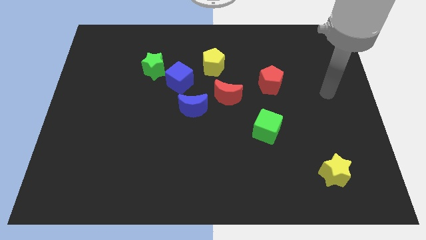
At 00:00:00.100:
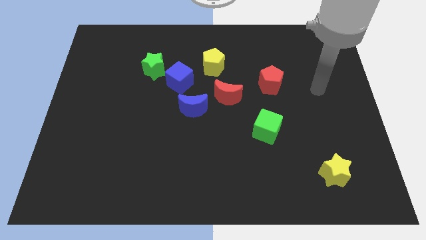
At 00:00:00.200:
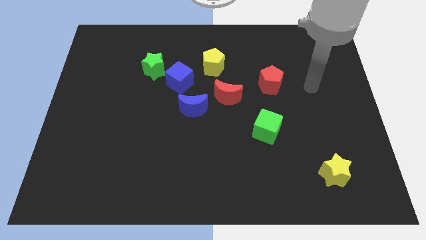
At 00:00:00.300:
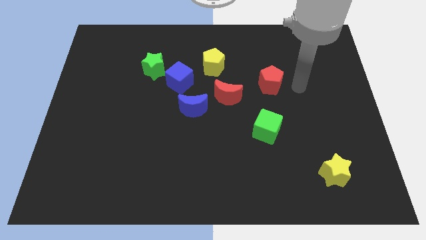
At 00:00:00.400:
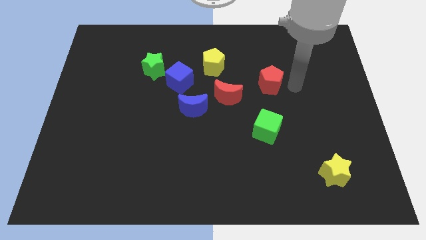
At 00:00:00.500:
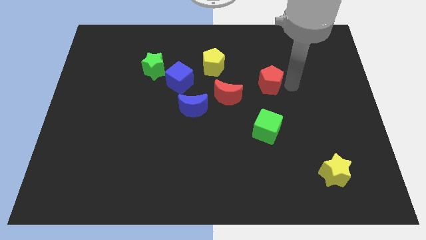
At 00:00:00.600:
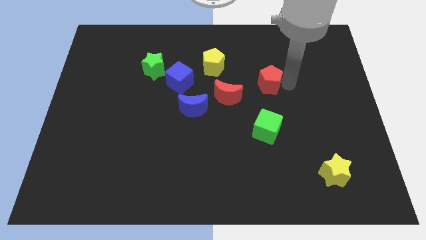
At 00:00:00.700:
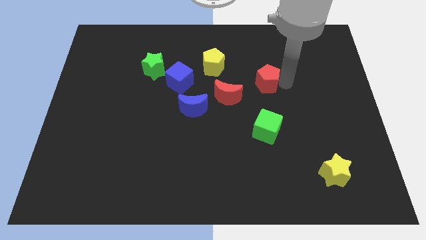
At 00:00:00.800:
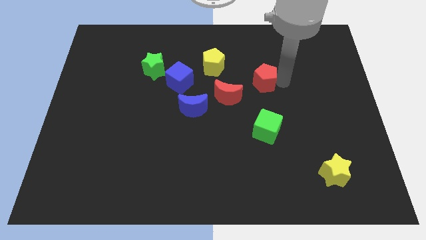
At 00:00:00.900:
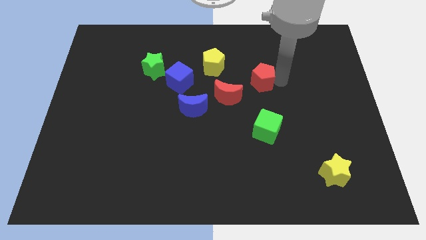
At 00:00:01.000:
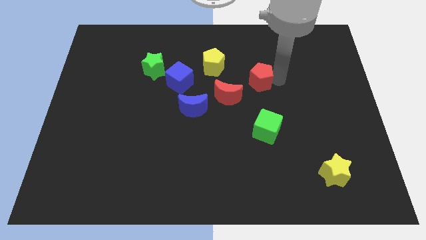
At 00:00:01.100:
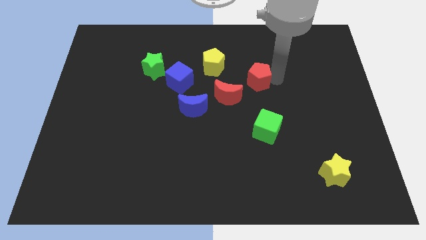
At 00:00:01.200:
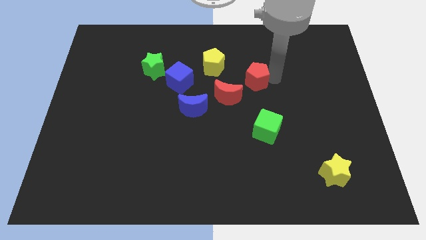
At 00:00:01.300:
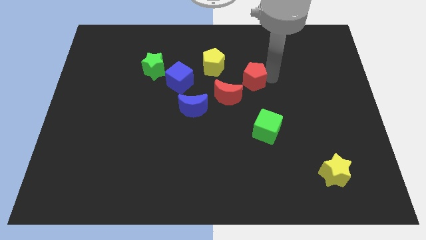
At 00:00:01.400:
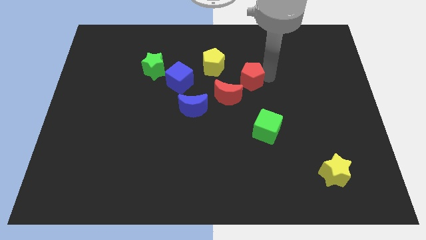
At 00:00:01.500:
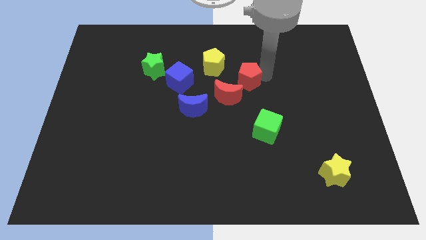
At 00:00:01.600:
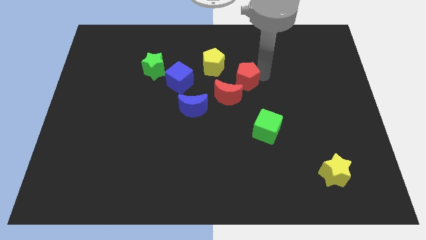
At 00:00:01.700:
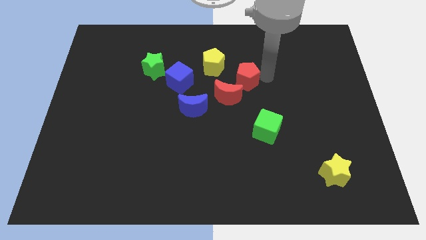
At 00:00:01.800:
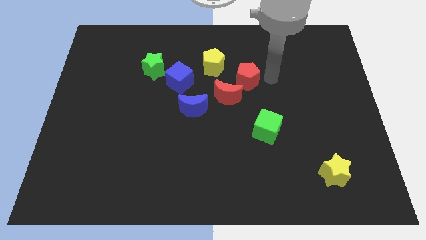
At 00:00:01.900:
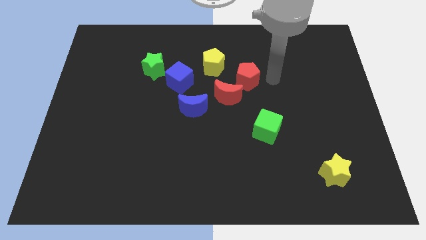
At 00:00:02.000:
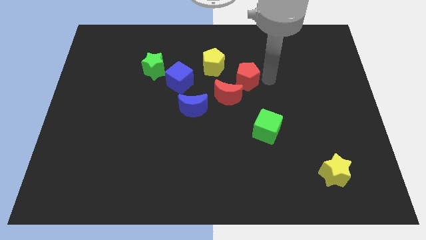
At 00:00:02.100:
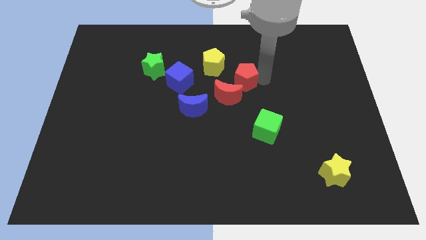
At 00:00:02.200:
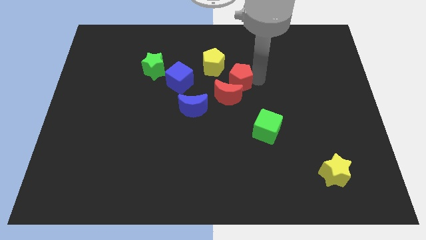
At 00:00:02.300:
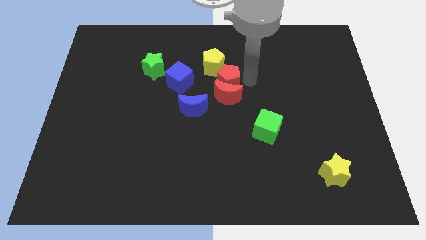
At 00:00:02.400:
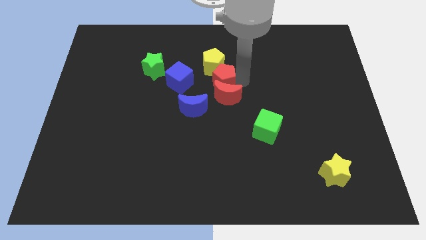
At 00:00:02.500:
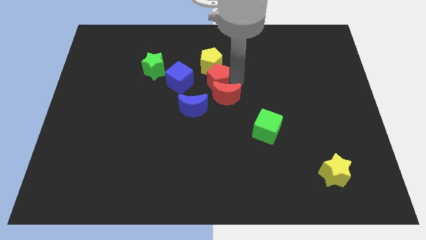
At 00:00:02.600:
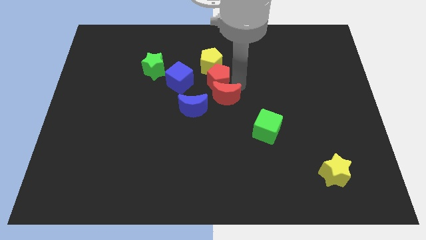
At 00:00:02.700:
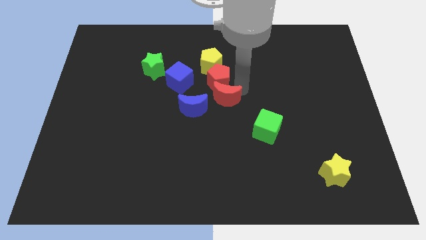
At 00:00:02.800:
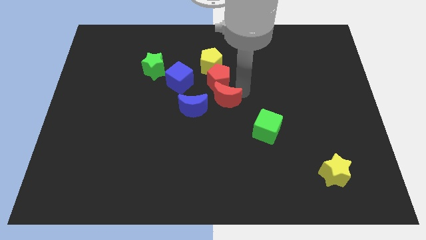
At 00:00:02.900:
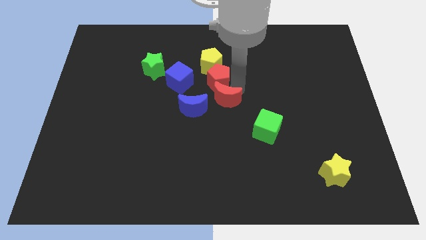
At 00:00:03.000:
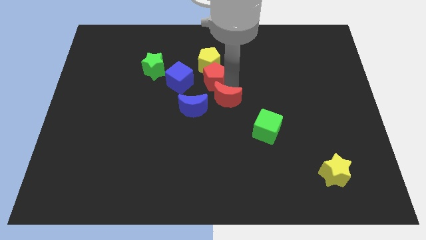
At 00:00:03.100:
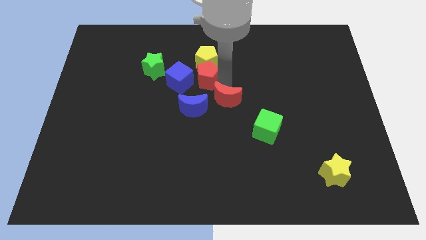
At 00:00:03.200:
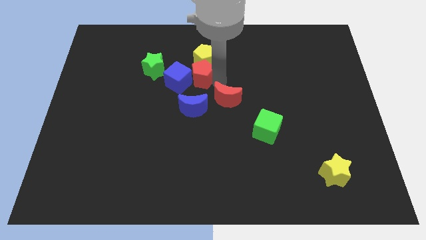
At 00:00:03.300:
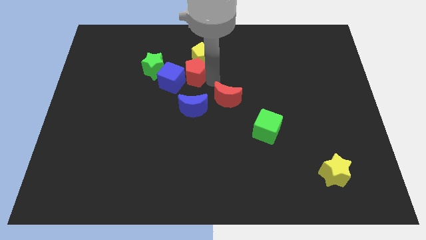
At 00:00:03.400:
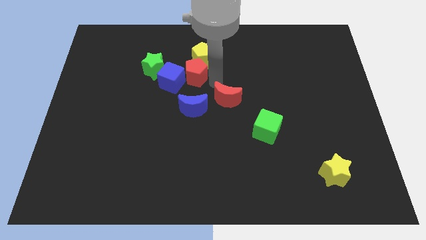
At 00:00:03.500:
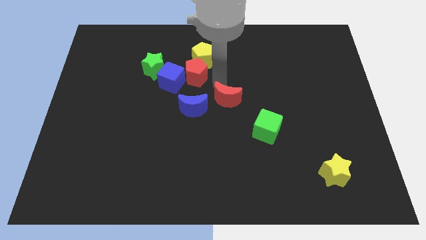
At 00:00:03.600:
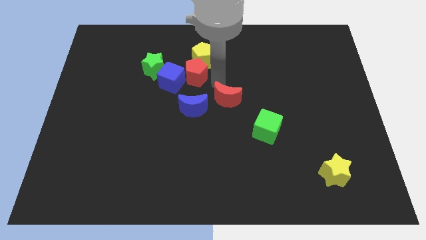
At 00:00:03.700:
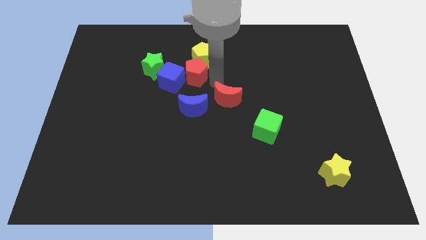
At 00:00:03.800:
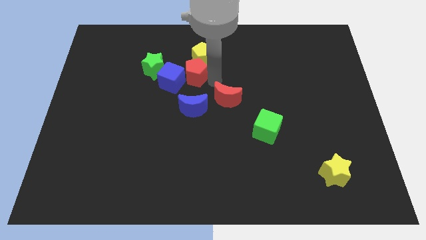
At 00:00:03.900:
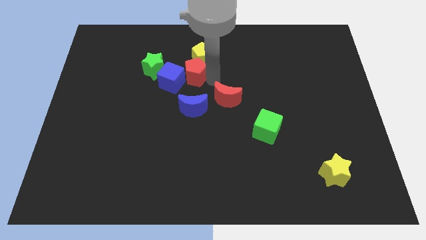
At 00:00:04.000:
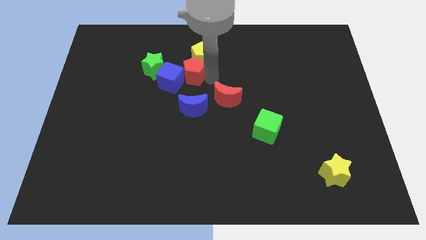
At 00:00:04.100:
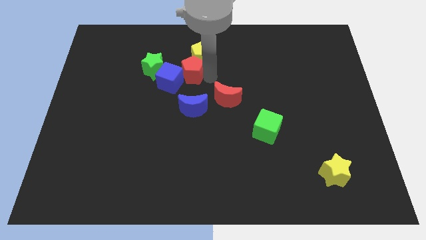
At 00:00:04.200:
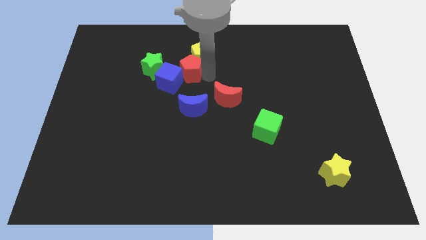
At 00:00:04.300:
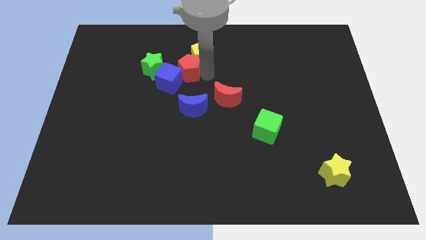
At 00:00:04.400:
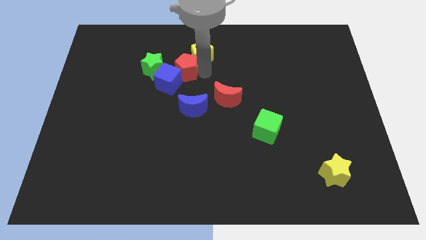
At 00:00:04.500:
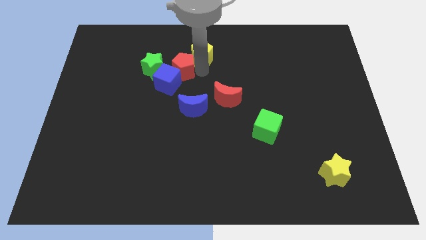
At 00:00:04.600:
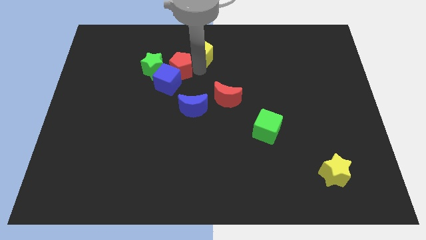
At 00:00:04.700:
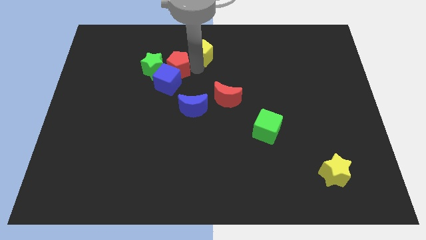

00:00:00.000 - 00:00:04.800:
slide the red pentagon to the green star

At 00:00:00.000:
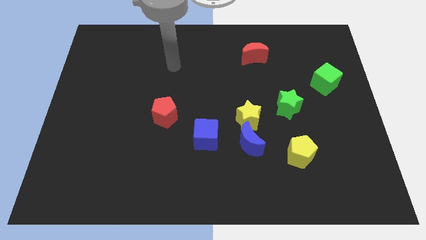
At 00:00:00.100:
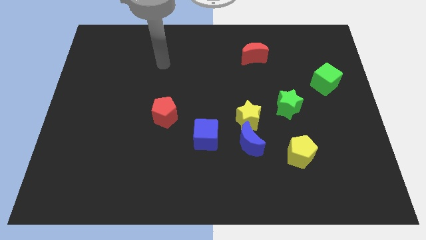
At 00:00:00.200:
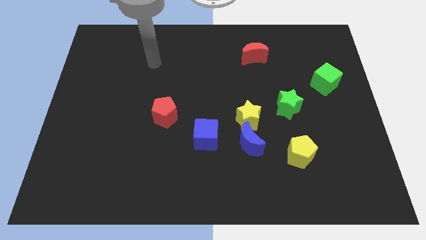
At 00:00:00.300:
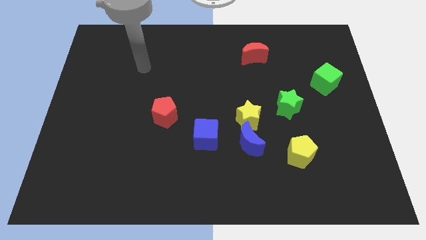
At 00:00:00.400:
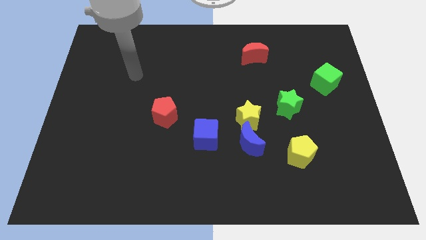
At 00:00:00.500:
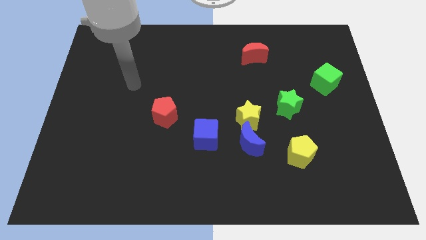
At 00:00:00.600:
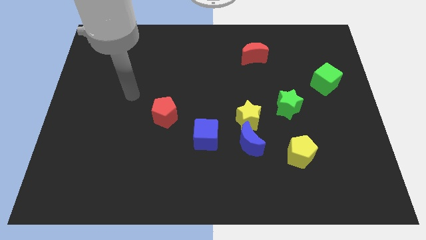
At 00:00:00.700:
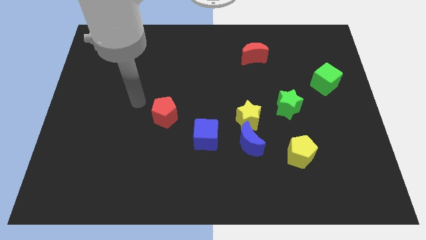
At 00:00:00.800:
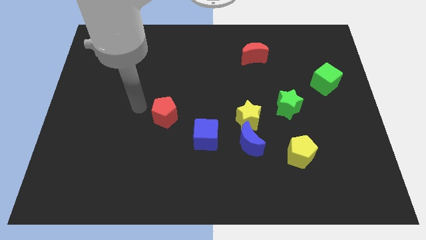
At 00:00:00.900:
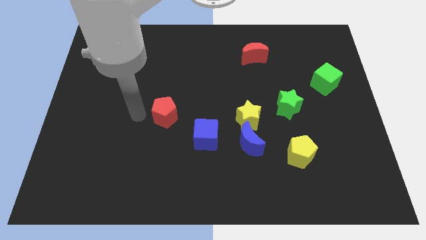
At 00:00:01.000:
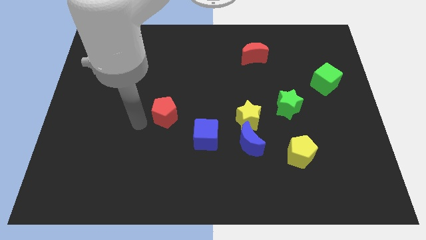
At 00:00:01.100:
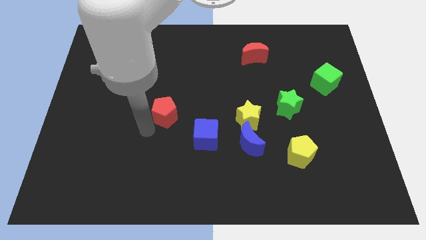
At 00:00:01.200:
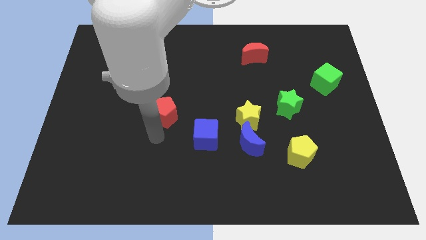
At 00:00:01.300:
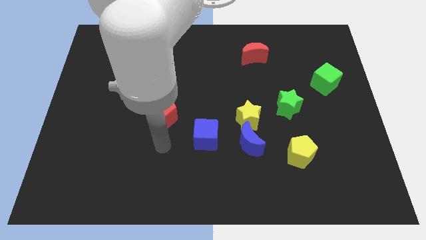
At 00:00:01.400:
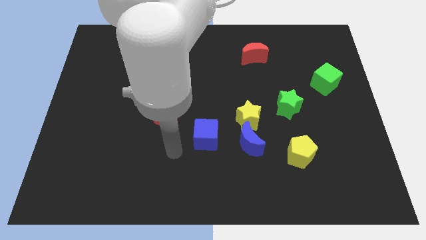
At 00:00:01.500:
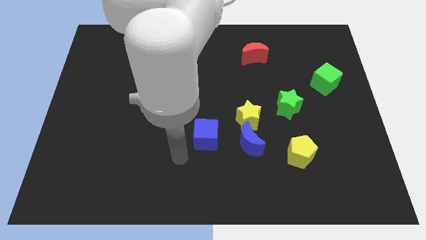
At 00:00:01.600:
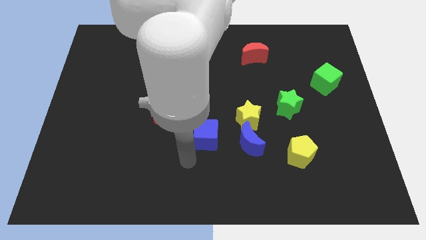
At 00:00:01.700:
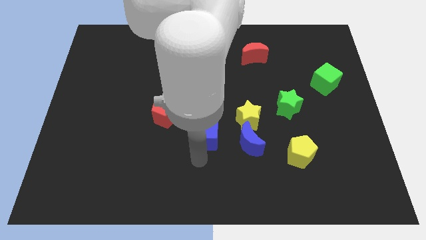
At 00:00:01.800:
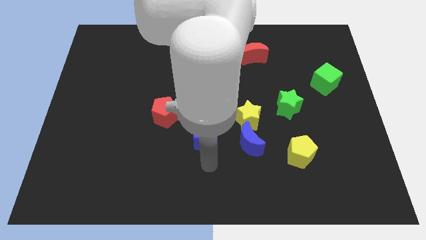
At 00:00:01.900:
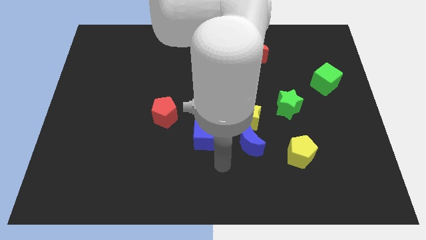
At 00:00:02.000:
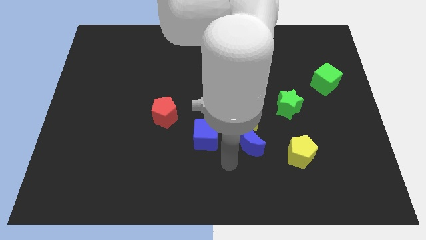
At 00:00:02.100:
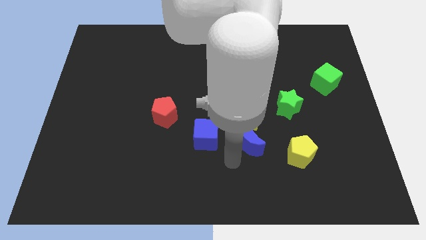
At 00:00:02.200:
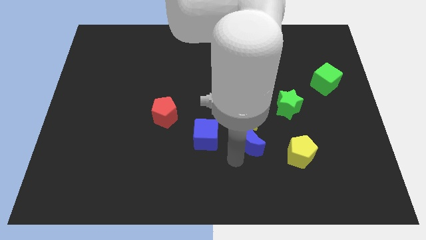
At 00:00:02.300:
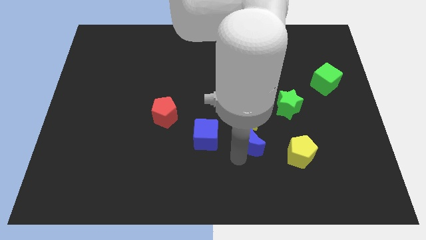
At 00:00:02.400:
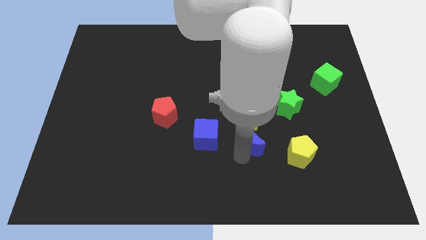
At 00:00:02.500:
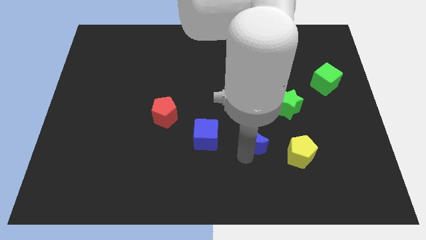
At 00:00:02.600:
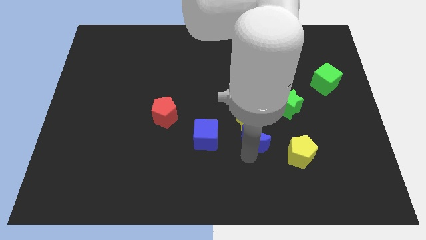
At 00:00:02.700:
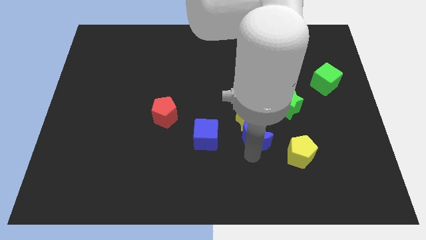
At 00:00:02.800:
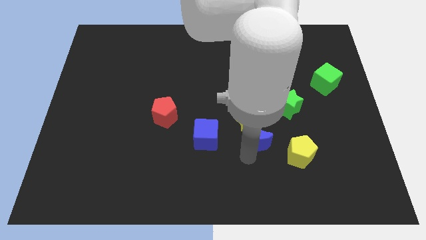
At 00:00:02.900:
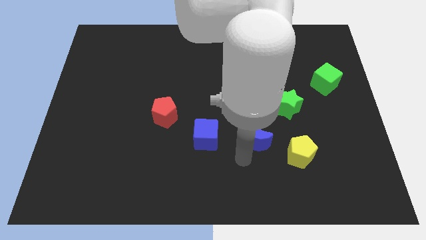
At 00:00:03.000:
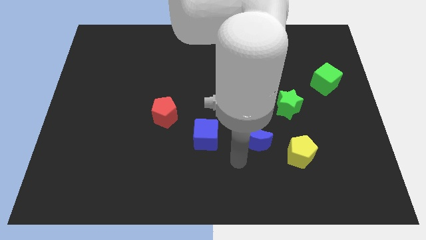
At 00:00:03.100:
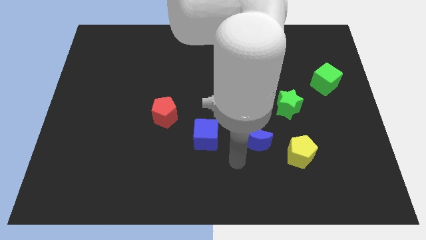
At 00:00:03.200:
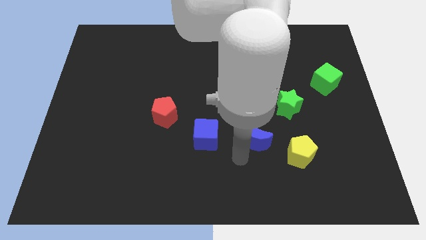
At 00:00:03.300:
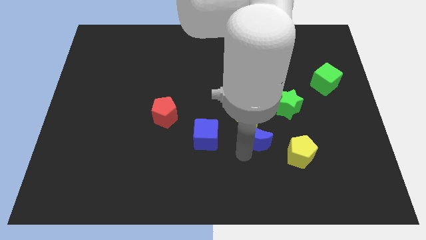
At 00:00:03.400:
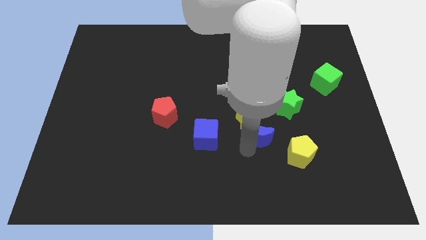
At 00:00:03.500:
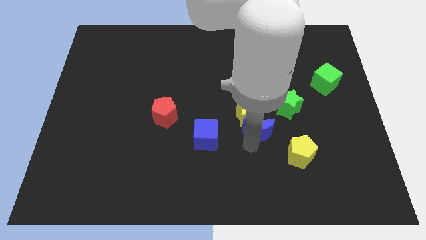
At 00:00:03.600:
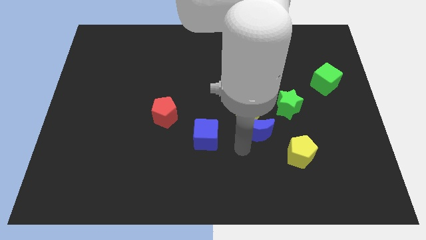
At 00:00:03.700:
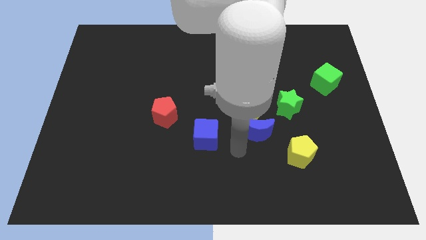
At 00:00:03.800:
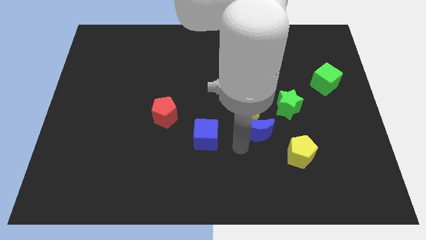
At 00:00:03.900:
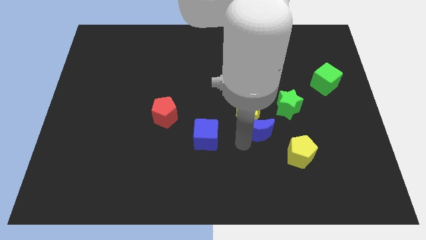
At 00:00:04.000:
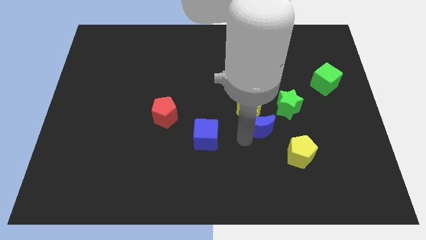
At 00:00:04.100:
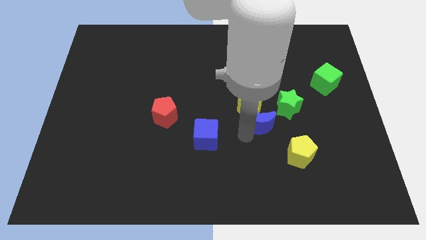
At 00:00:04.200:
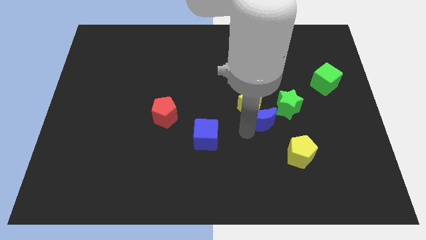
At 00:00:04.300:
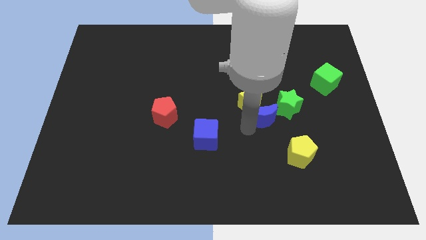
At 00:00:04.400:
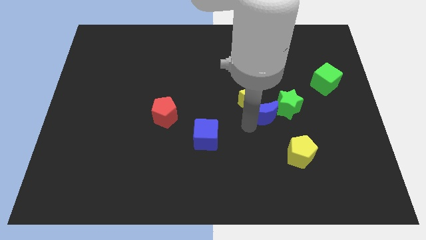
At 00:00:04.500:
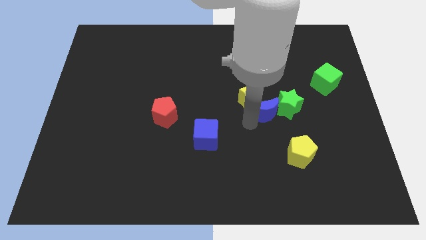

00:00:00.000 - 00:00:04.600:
push the blue moon towards the green star
